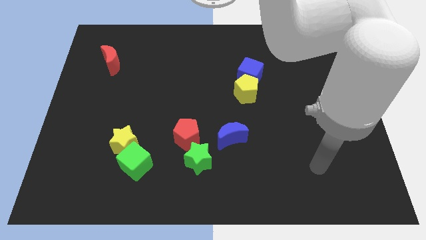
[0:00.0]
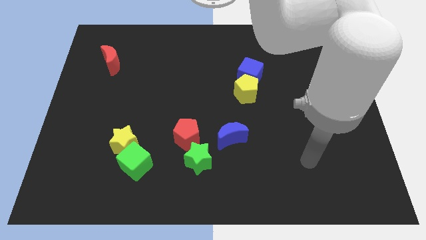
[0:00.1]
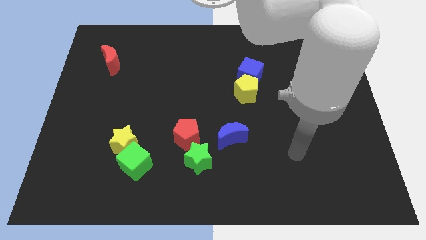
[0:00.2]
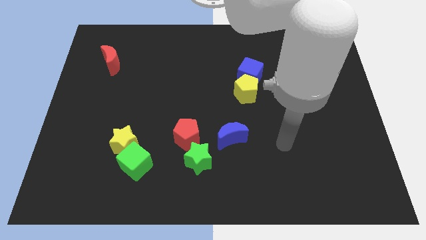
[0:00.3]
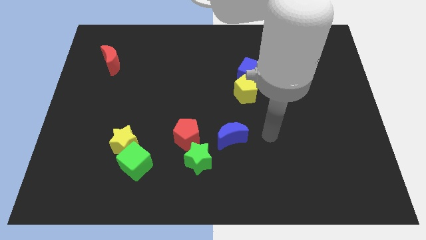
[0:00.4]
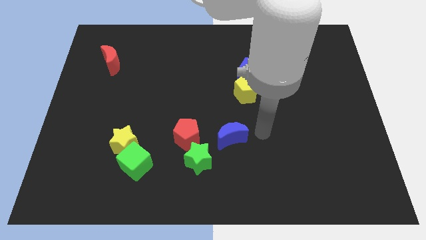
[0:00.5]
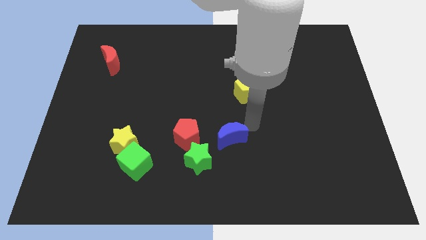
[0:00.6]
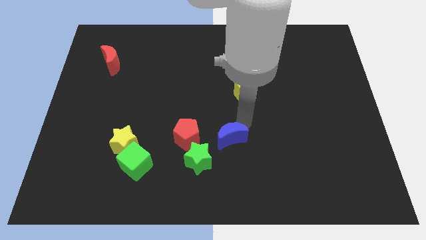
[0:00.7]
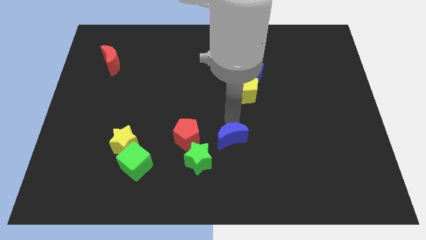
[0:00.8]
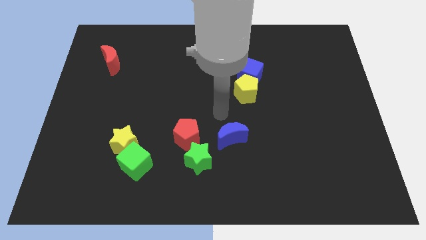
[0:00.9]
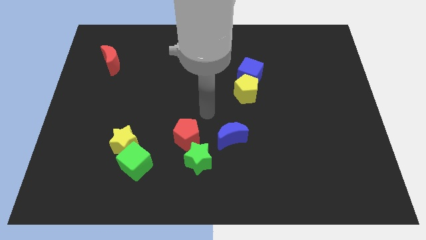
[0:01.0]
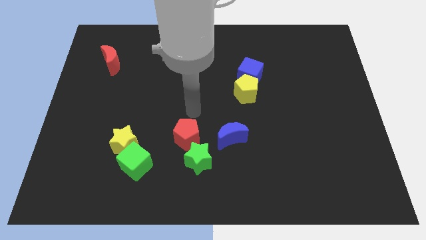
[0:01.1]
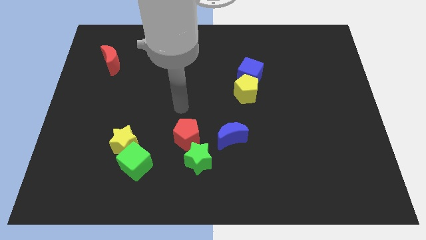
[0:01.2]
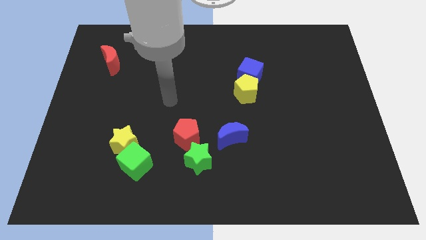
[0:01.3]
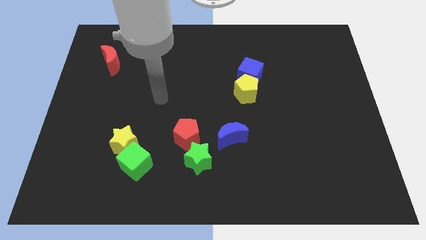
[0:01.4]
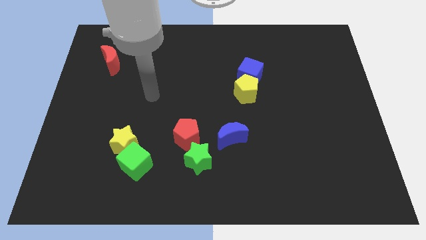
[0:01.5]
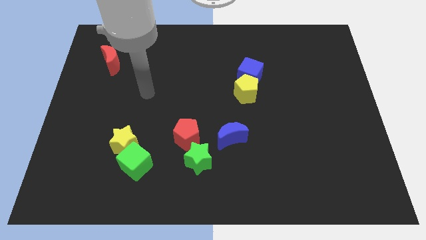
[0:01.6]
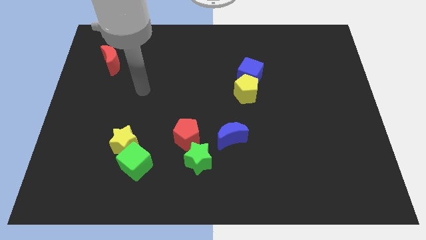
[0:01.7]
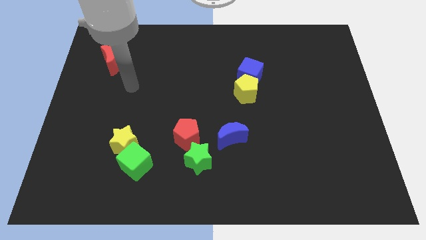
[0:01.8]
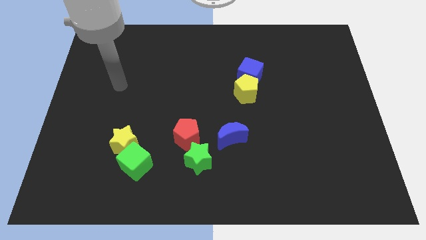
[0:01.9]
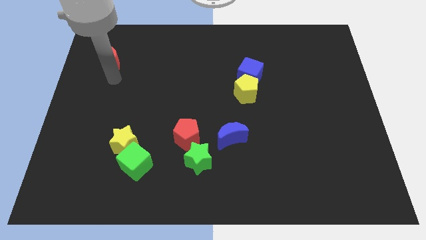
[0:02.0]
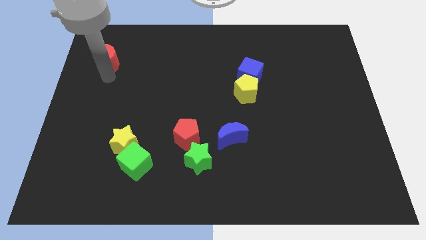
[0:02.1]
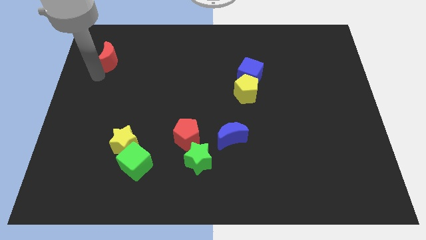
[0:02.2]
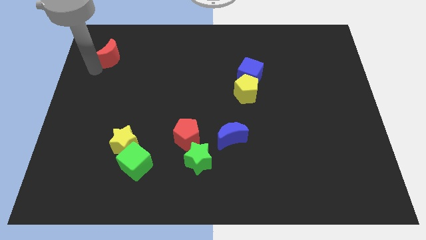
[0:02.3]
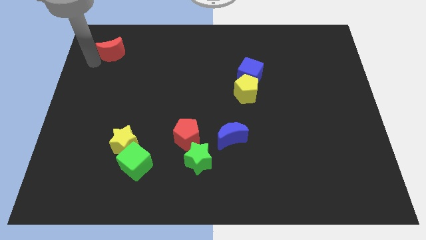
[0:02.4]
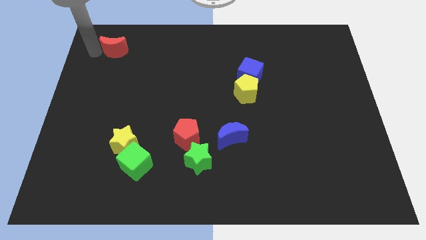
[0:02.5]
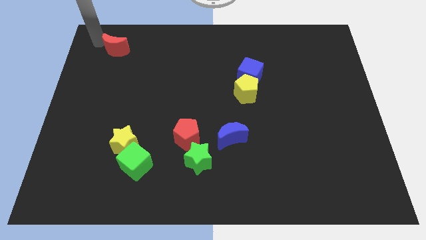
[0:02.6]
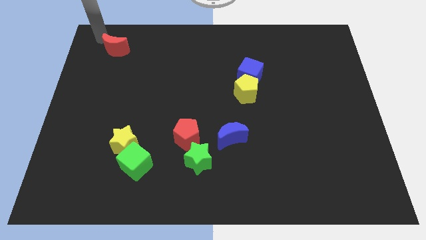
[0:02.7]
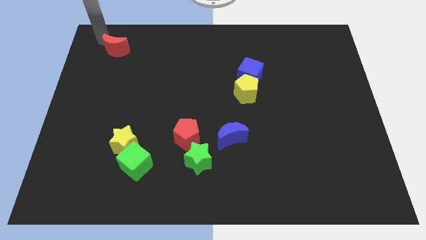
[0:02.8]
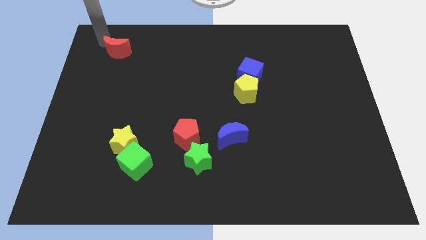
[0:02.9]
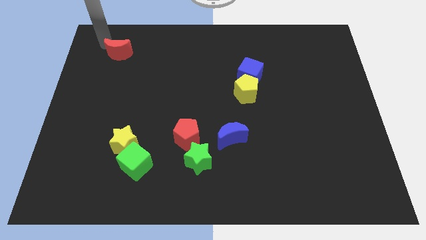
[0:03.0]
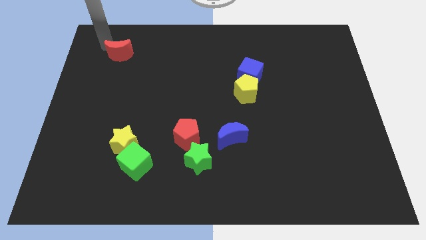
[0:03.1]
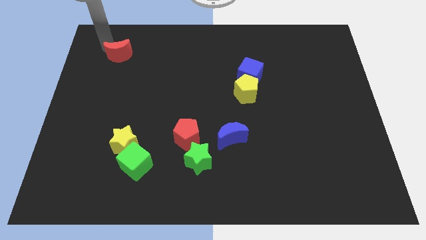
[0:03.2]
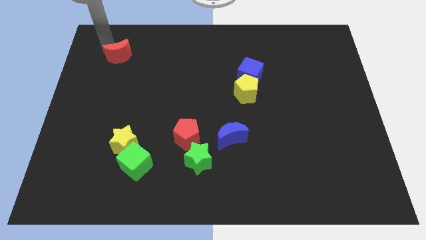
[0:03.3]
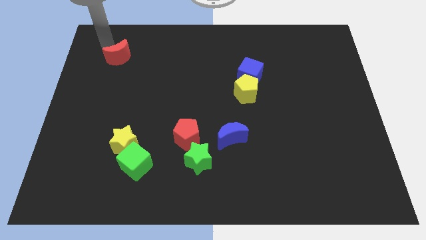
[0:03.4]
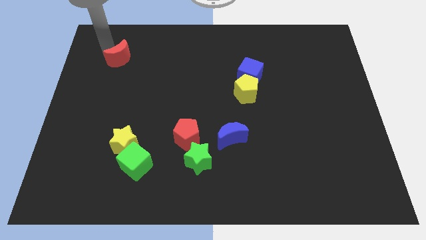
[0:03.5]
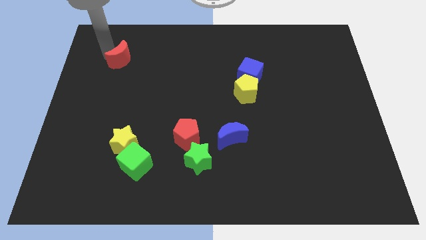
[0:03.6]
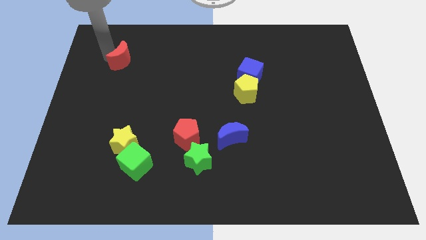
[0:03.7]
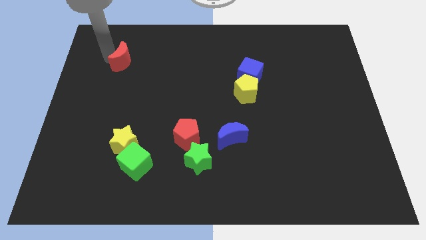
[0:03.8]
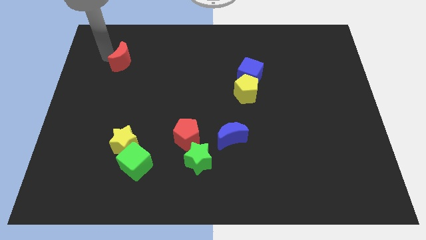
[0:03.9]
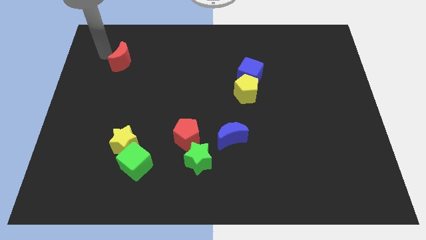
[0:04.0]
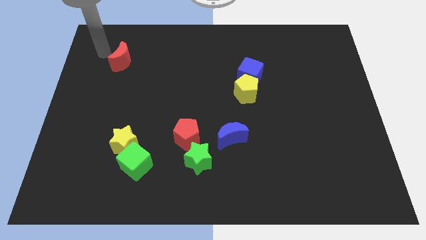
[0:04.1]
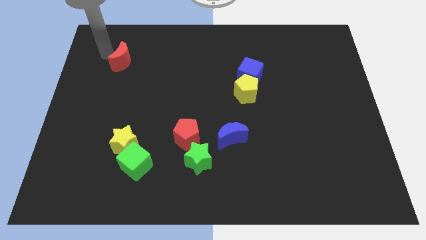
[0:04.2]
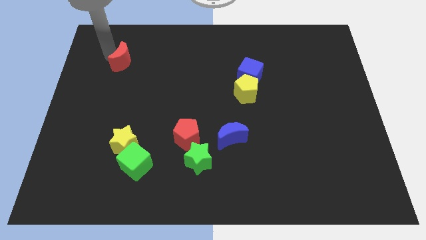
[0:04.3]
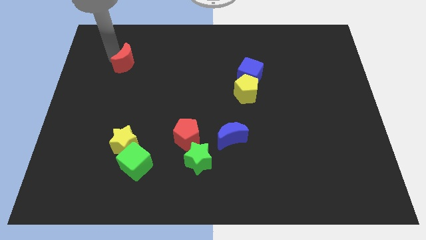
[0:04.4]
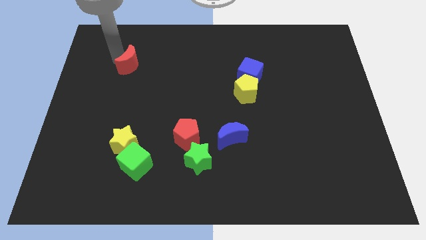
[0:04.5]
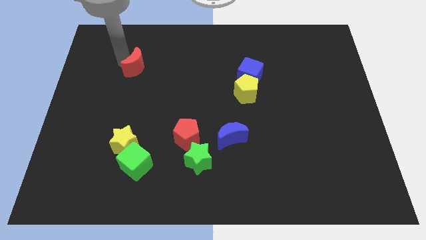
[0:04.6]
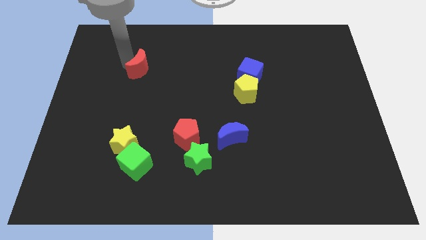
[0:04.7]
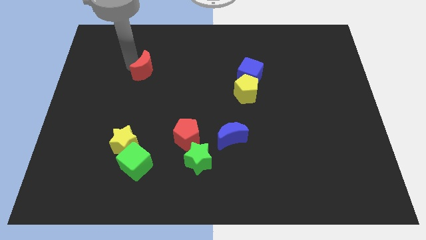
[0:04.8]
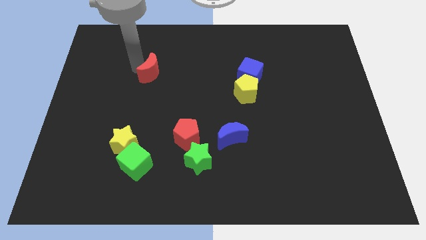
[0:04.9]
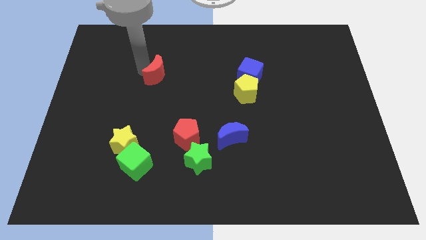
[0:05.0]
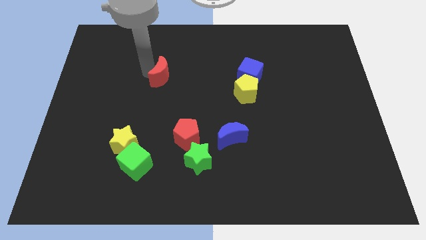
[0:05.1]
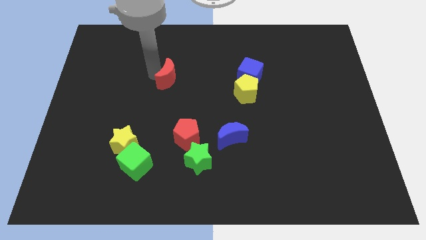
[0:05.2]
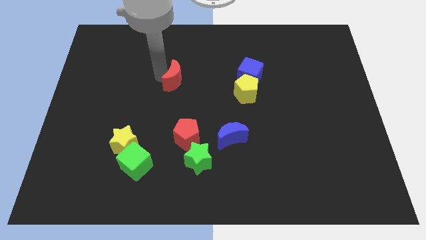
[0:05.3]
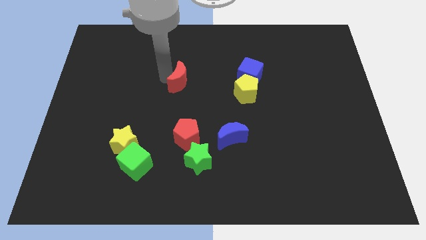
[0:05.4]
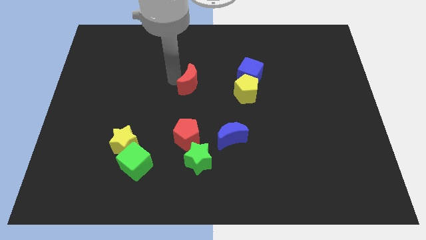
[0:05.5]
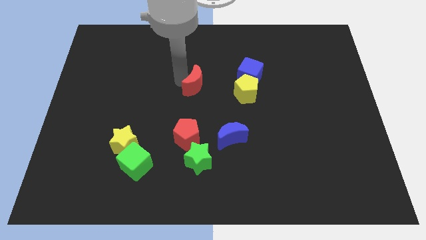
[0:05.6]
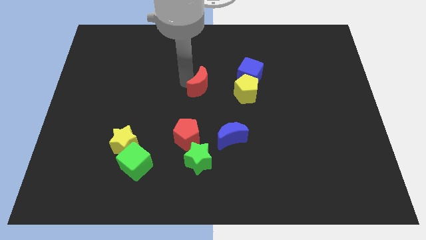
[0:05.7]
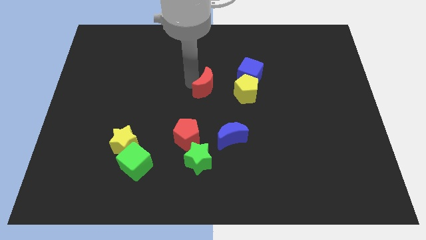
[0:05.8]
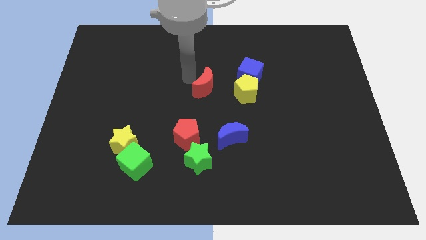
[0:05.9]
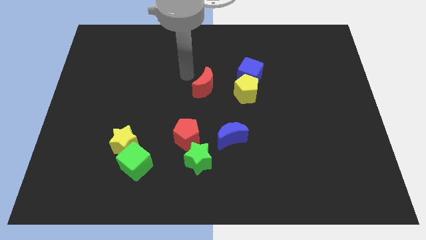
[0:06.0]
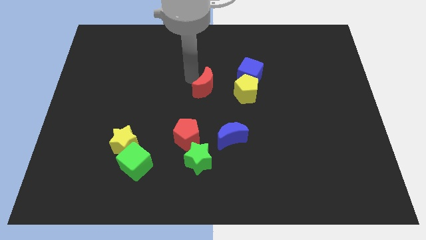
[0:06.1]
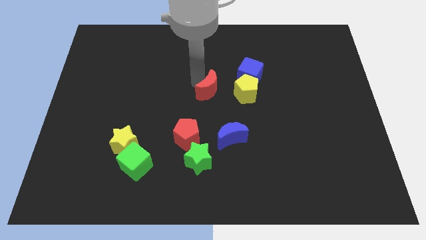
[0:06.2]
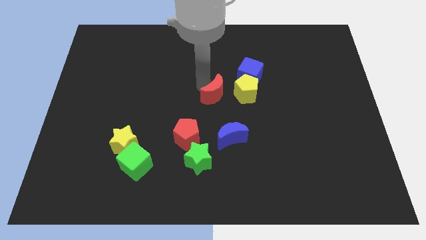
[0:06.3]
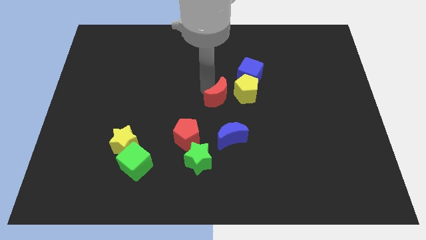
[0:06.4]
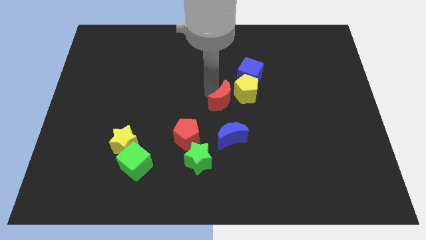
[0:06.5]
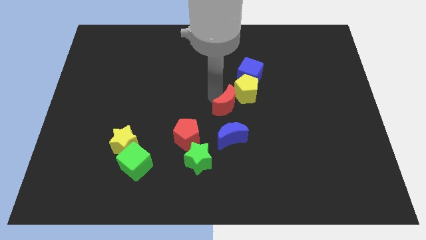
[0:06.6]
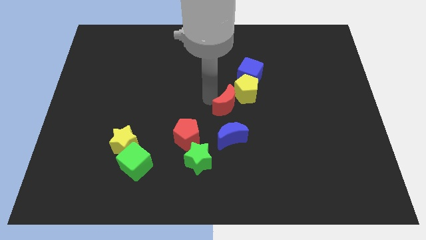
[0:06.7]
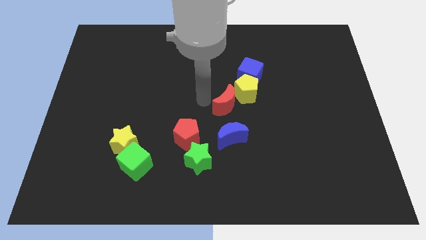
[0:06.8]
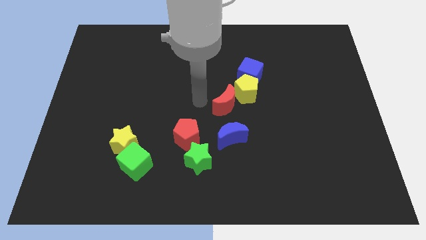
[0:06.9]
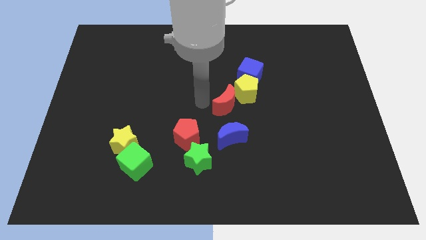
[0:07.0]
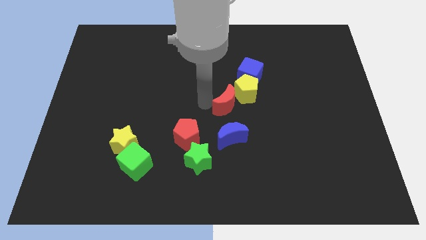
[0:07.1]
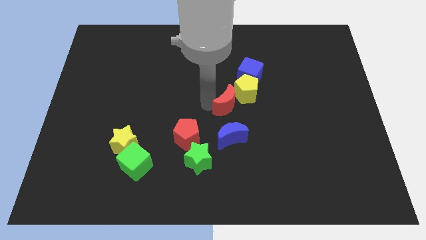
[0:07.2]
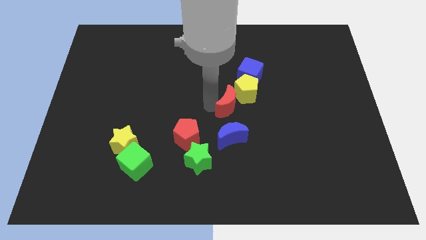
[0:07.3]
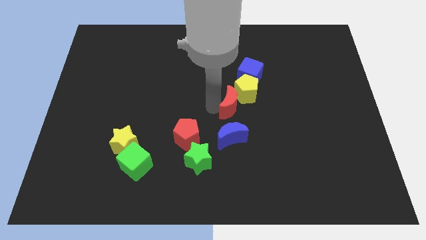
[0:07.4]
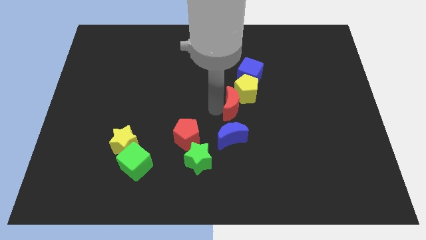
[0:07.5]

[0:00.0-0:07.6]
move the red moon to the bottom of the blue cube
